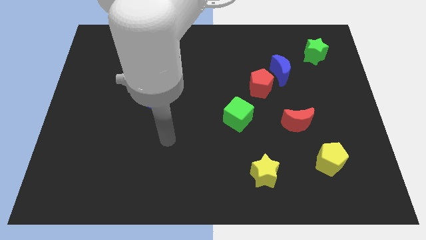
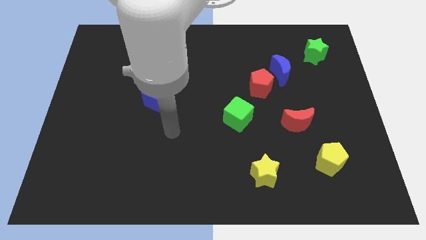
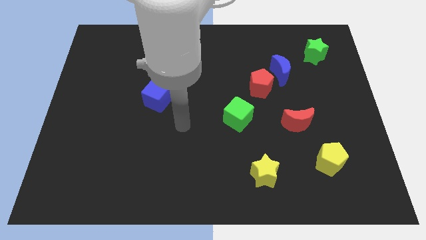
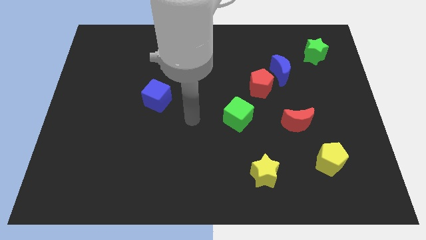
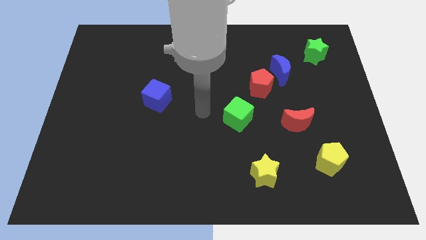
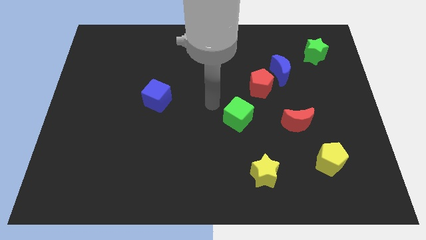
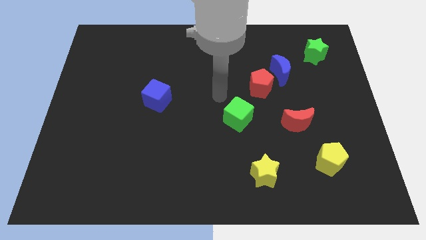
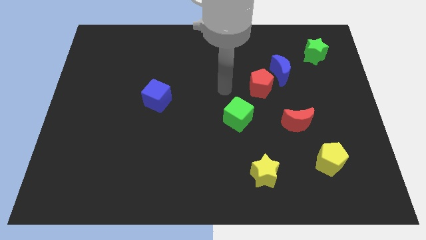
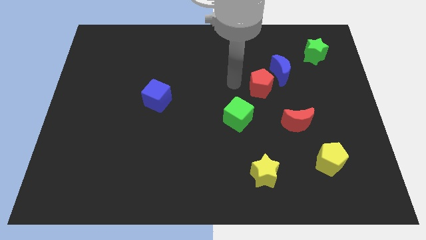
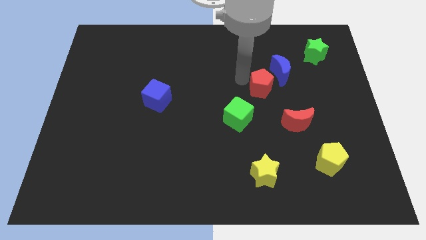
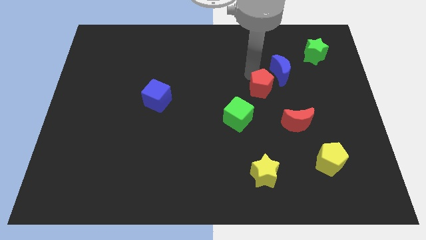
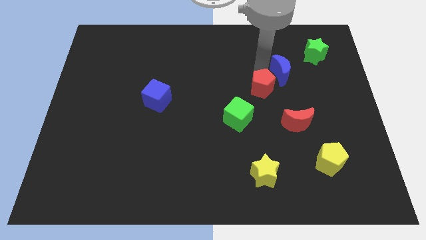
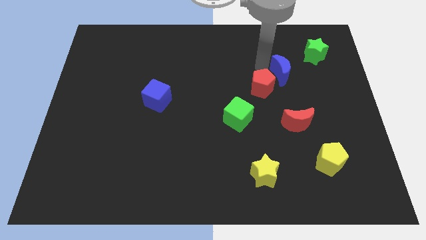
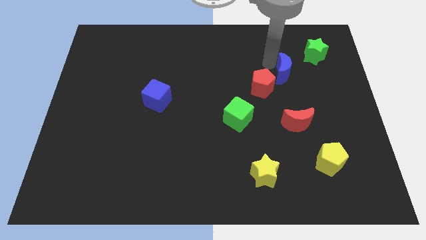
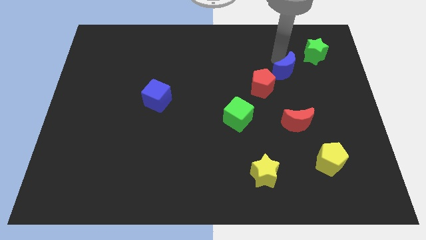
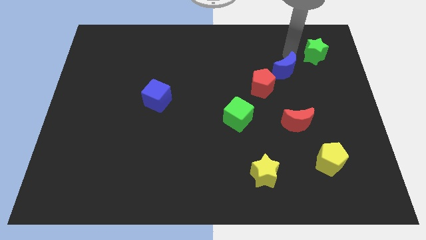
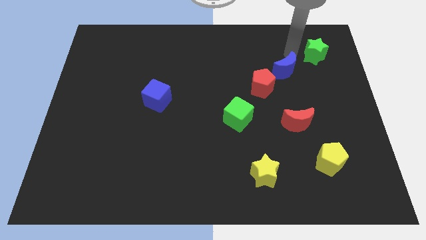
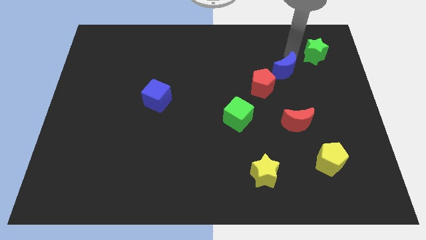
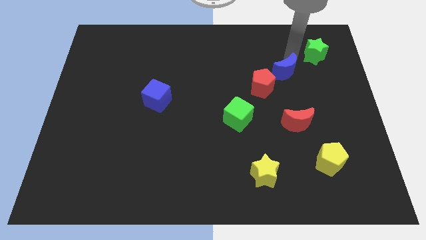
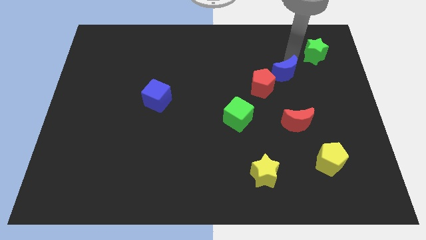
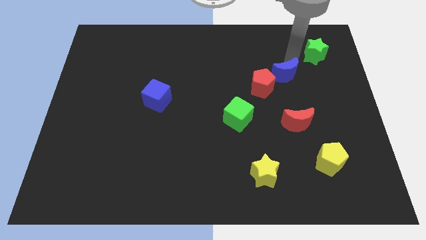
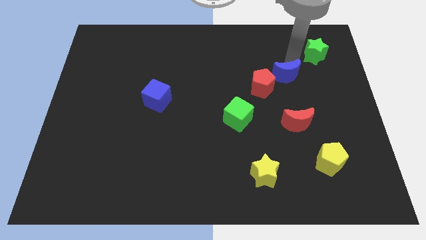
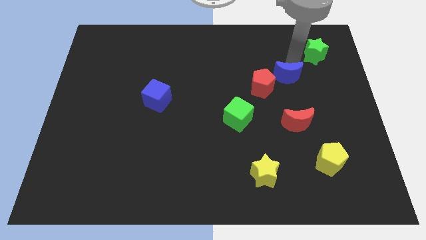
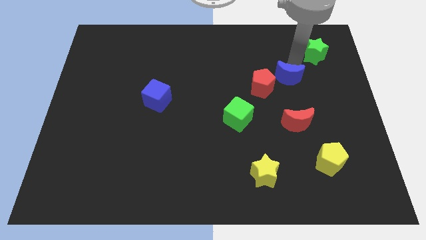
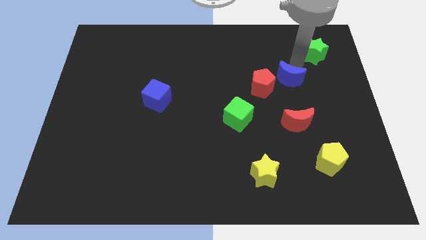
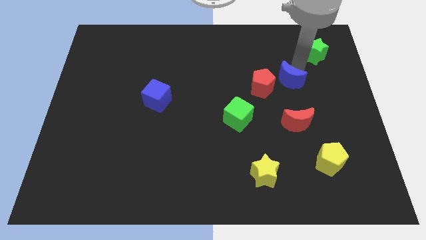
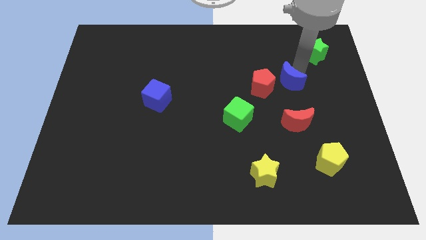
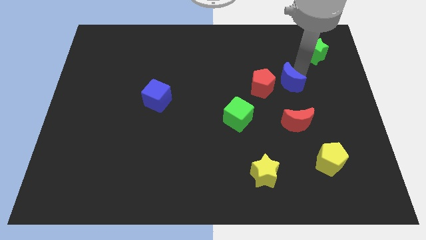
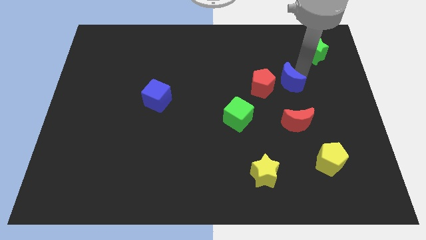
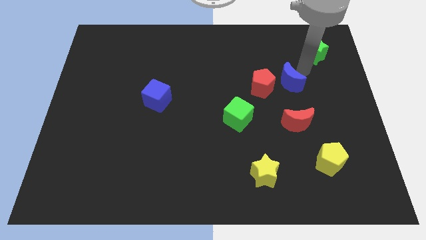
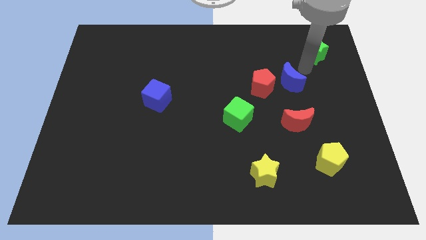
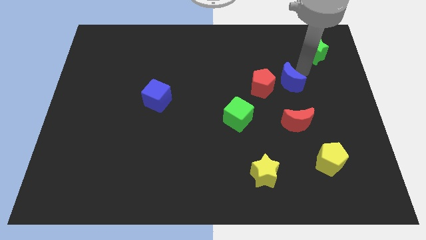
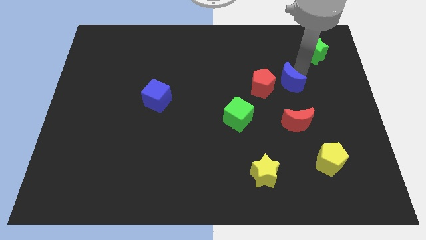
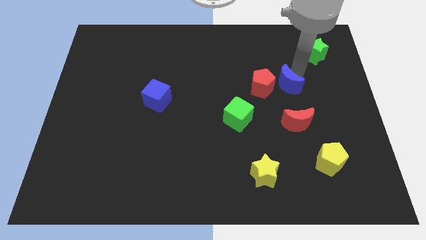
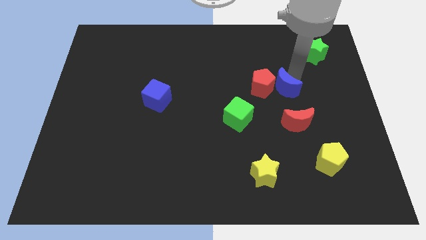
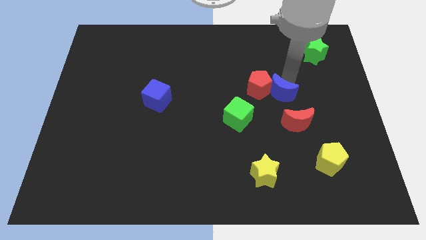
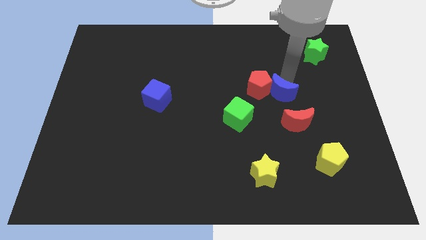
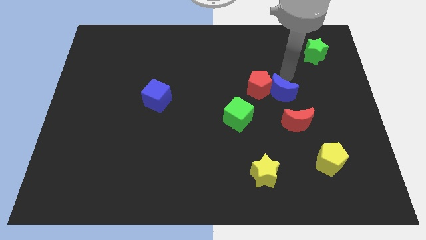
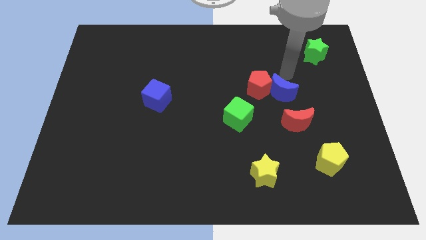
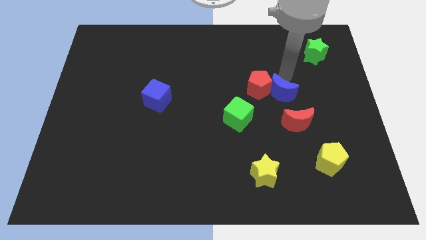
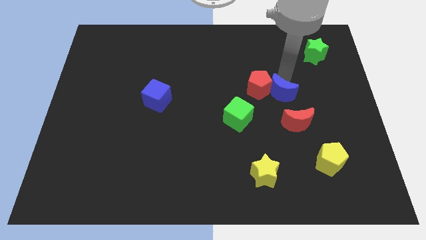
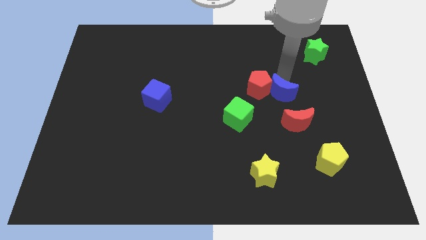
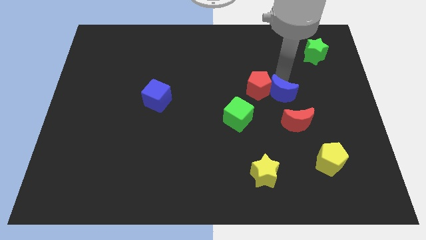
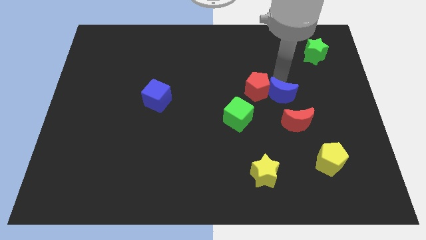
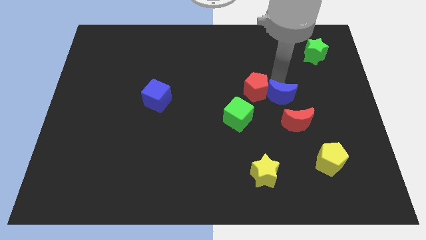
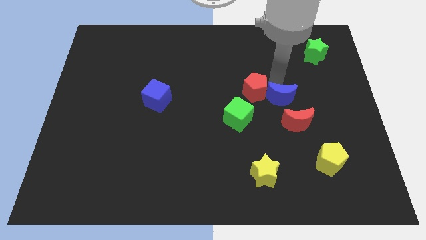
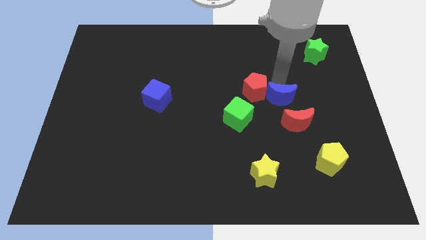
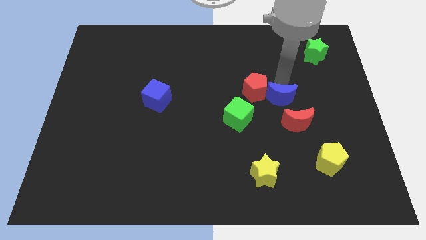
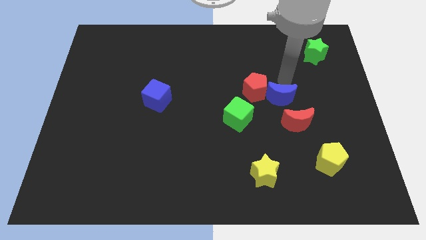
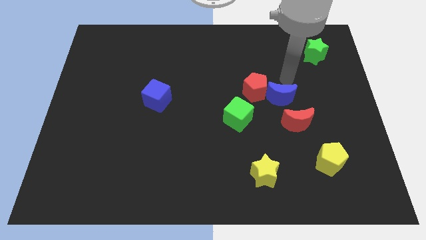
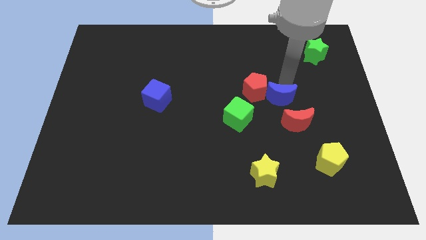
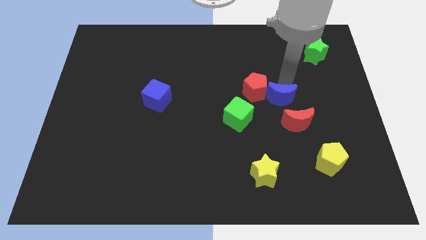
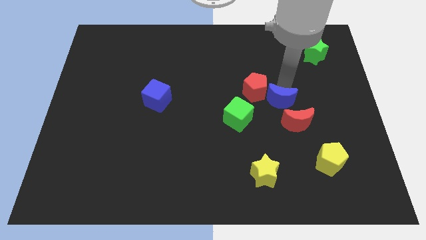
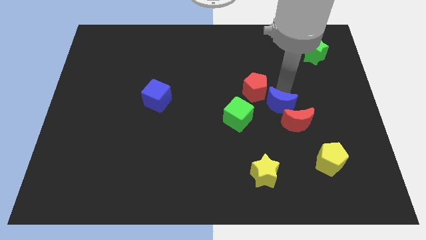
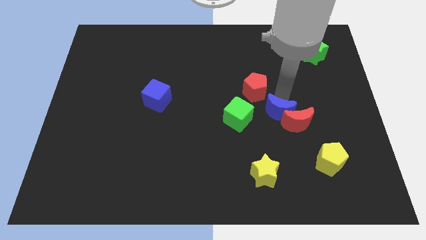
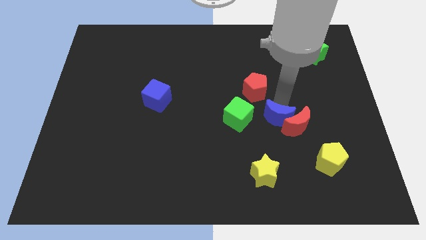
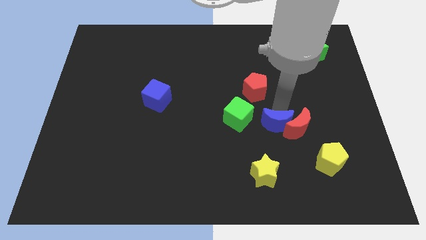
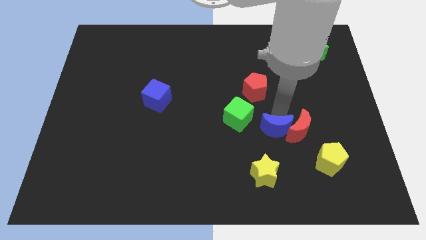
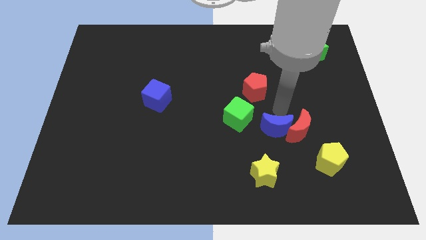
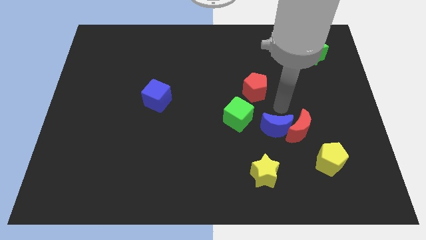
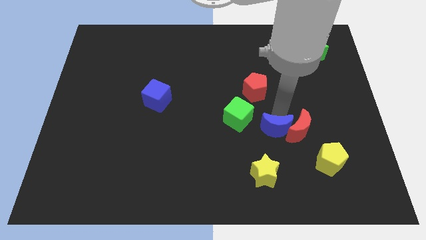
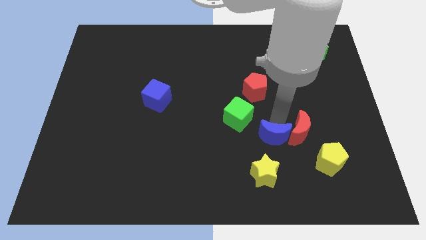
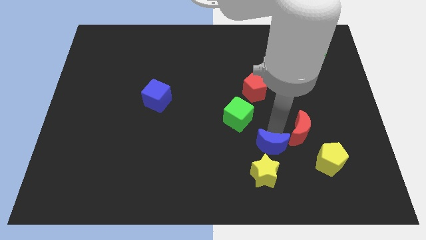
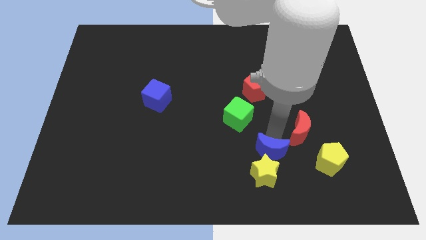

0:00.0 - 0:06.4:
put the blue moon next to the yellow star

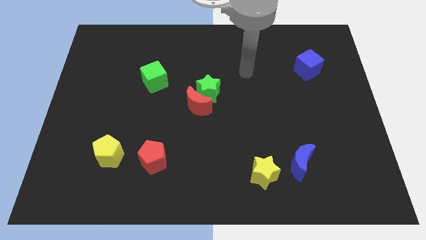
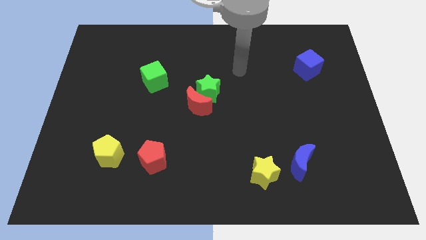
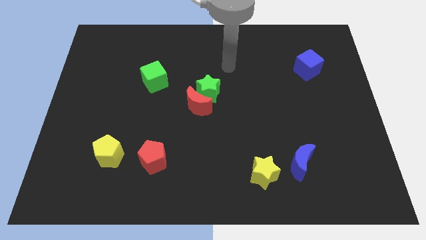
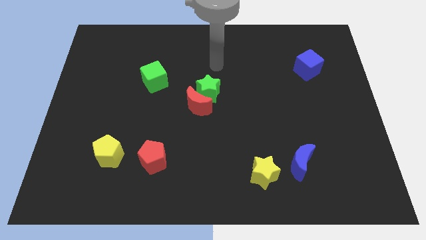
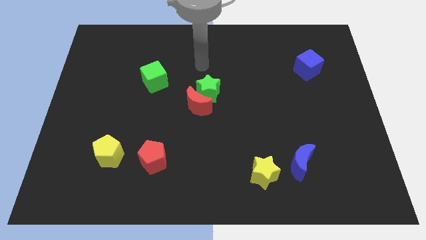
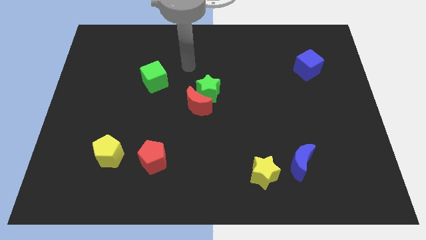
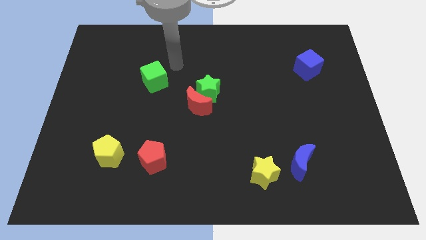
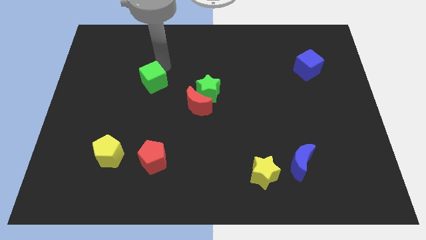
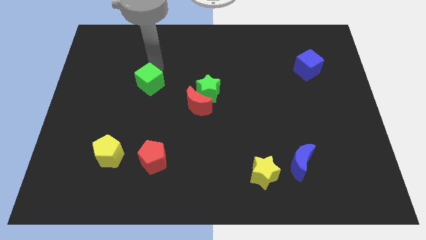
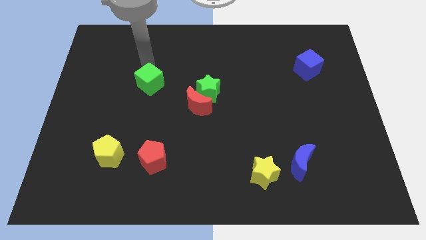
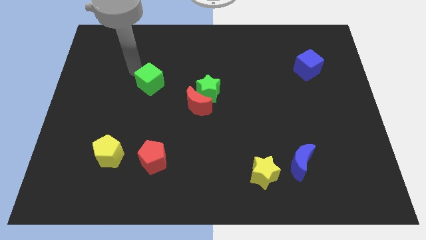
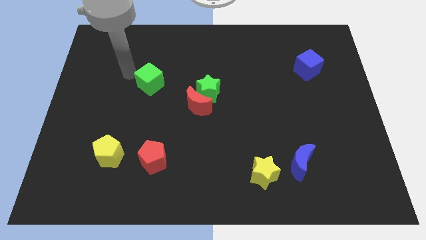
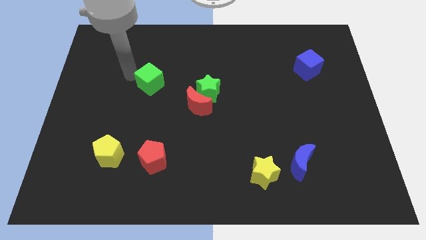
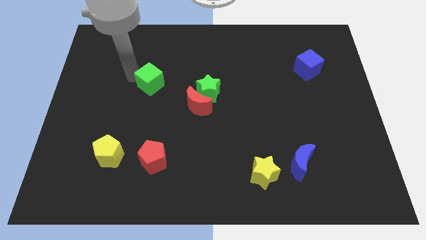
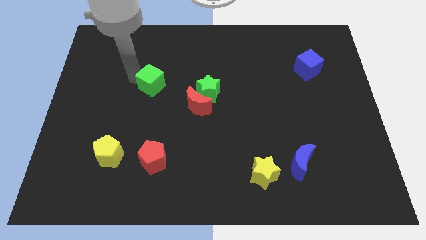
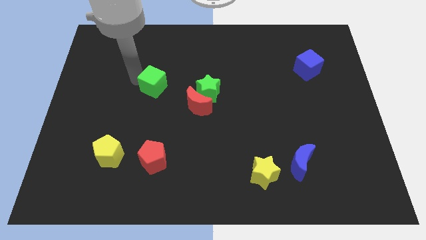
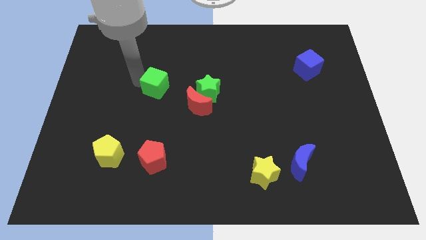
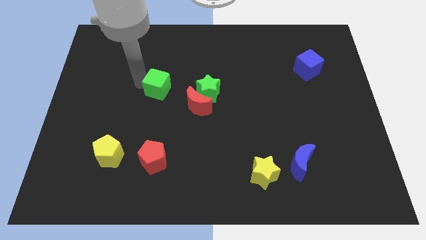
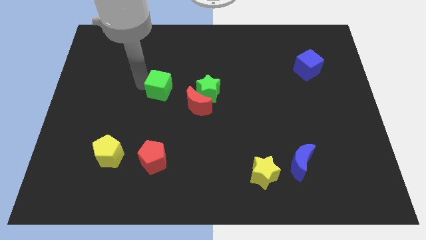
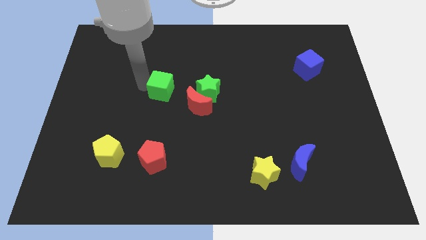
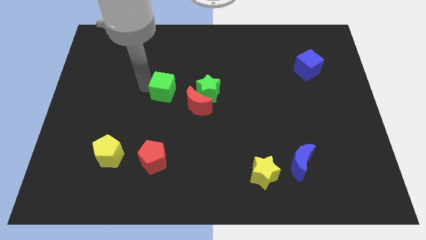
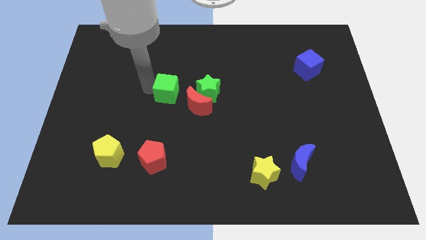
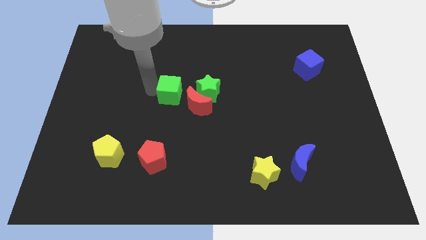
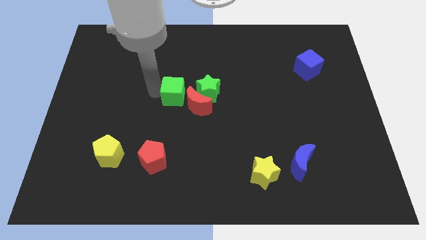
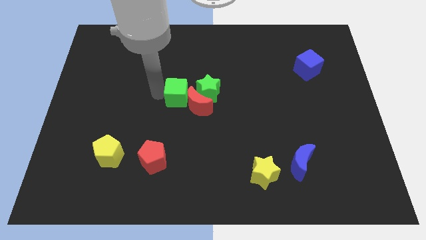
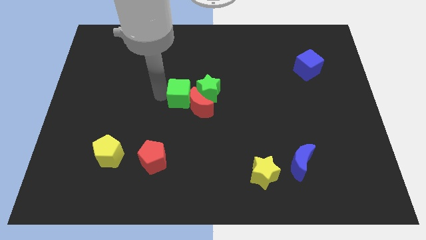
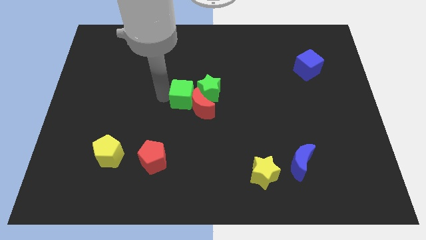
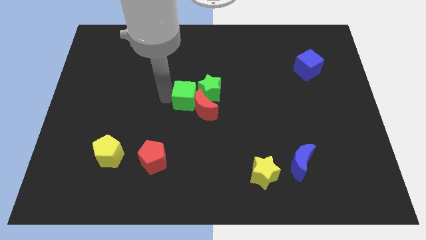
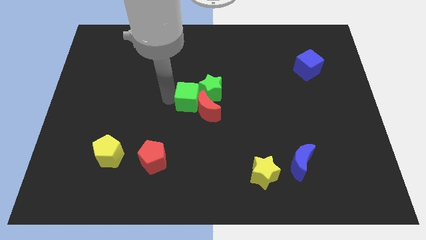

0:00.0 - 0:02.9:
move the green cube towards the green star
